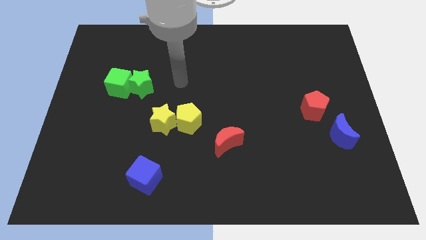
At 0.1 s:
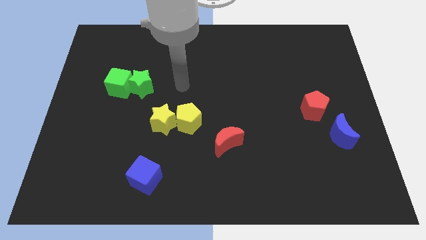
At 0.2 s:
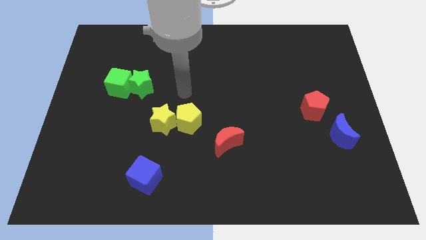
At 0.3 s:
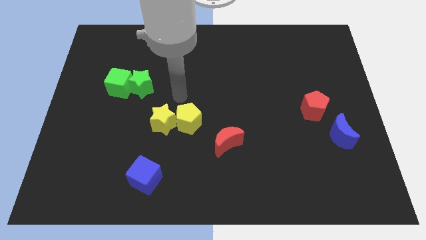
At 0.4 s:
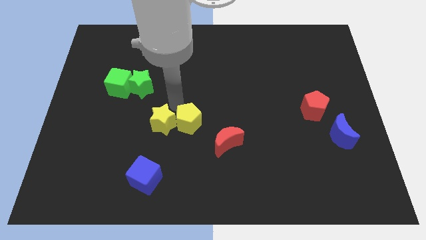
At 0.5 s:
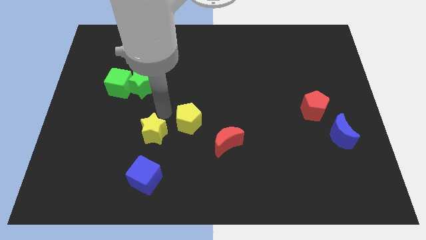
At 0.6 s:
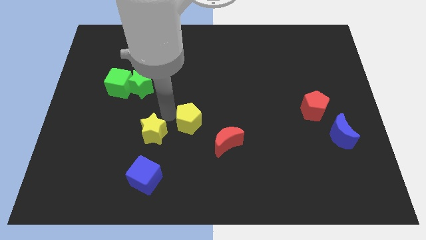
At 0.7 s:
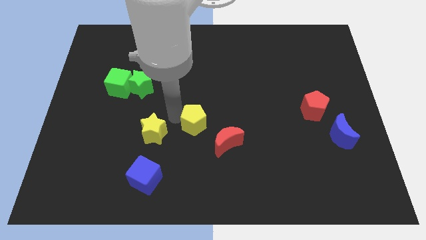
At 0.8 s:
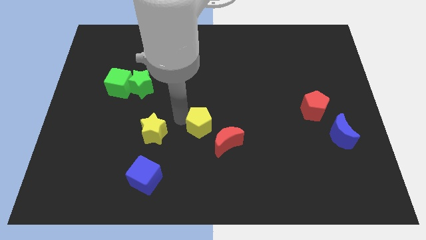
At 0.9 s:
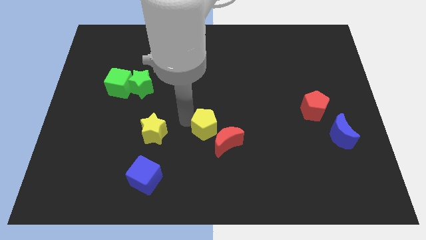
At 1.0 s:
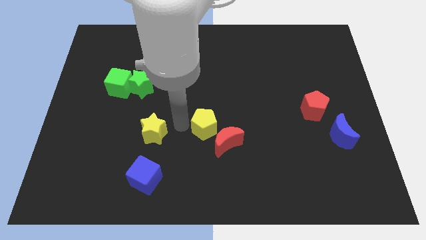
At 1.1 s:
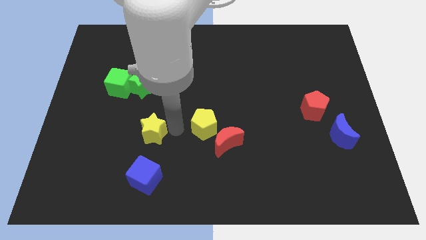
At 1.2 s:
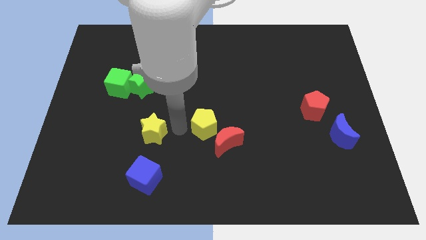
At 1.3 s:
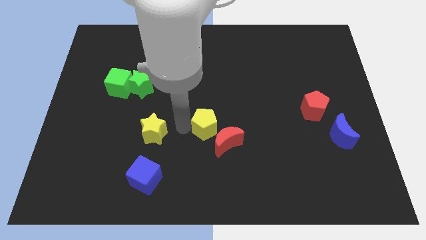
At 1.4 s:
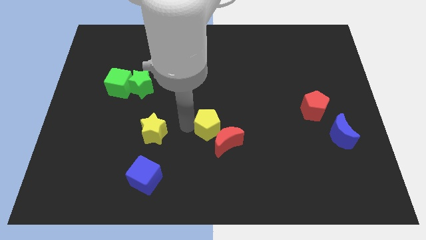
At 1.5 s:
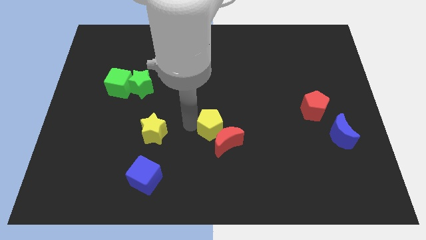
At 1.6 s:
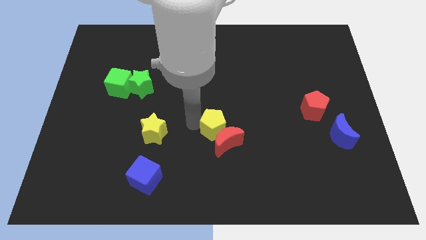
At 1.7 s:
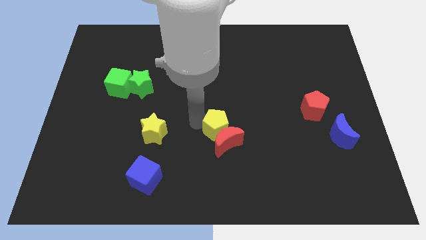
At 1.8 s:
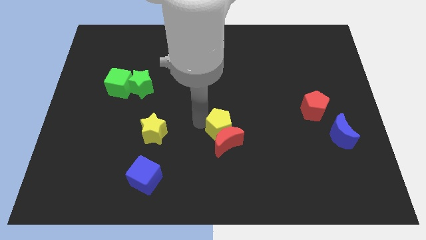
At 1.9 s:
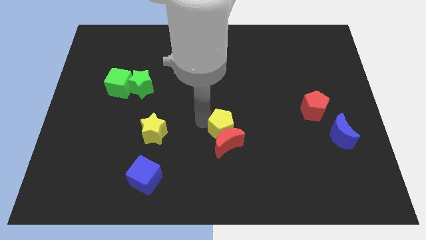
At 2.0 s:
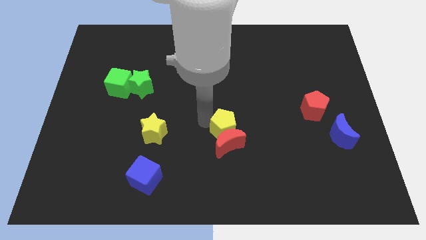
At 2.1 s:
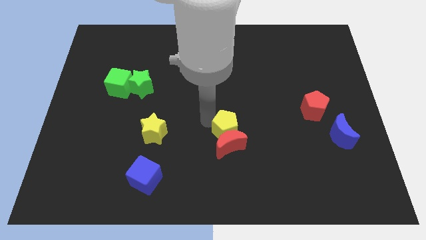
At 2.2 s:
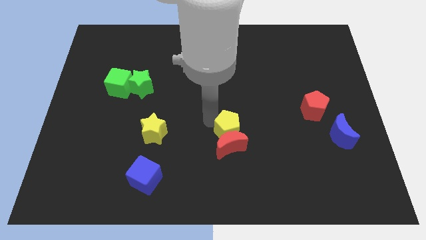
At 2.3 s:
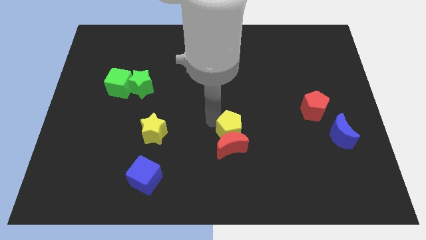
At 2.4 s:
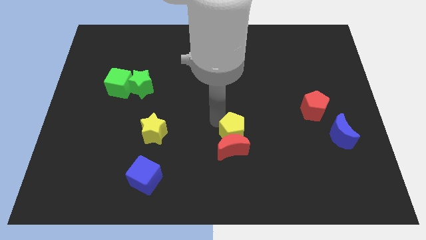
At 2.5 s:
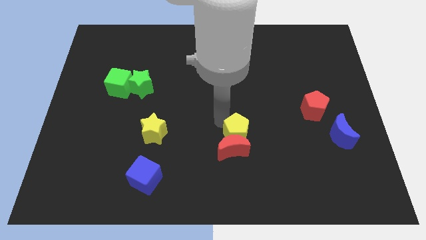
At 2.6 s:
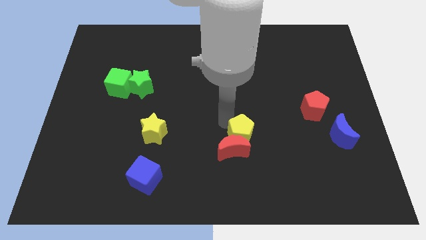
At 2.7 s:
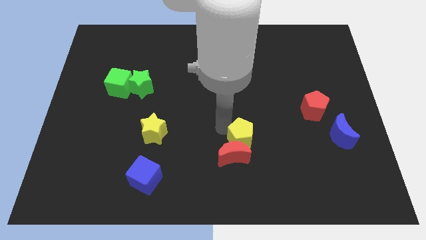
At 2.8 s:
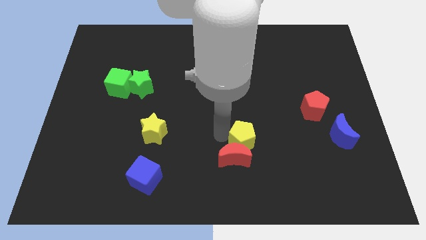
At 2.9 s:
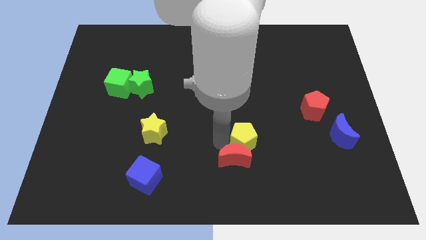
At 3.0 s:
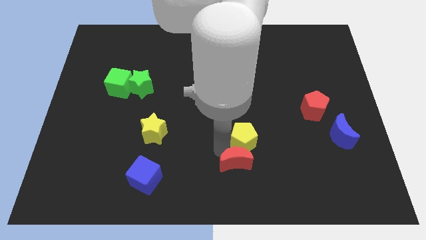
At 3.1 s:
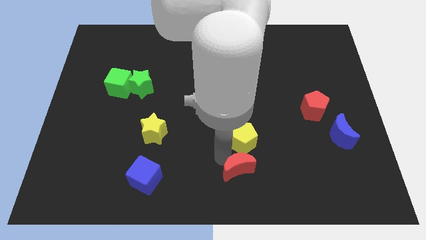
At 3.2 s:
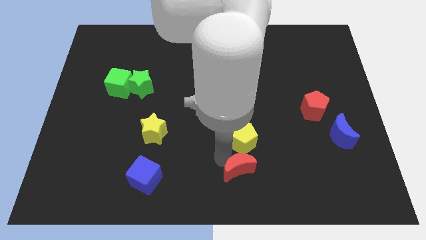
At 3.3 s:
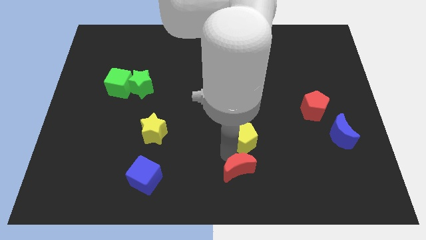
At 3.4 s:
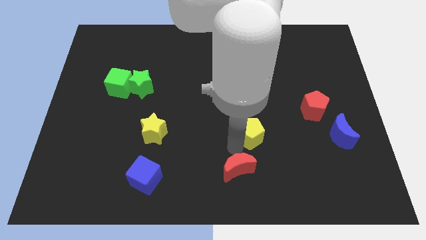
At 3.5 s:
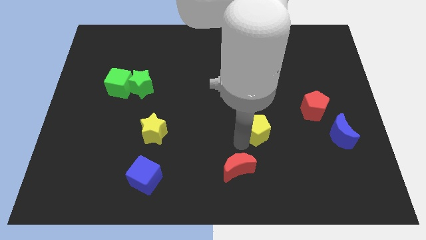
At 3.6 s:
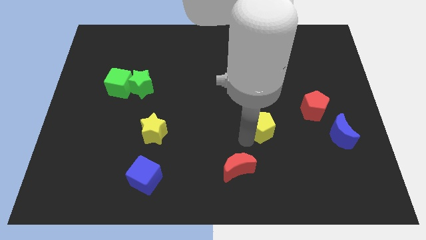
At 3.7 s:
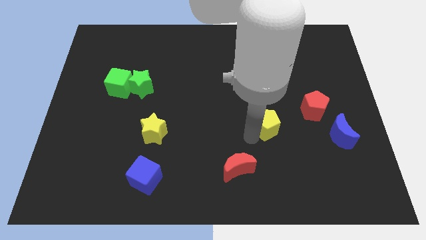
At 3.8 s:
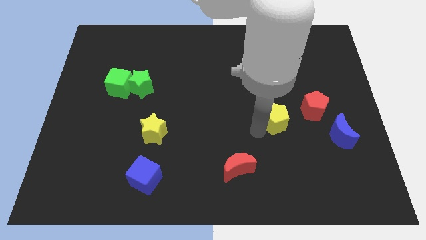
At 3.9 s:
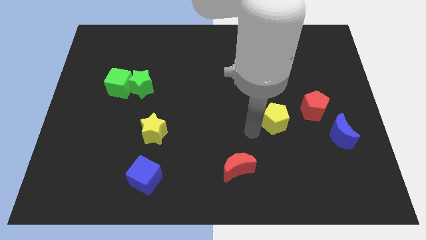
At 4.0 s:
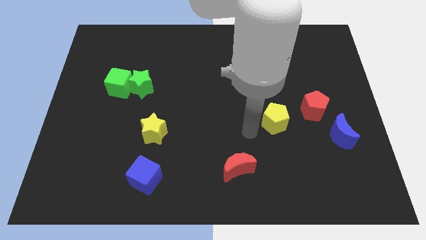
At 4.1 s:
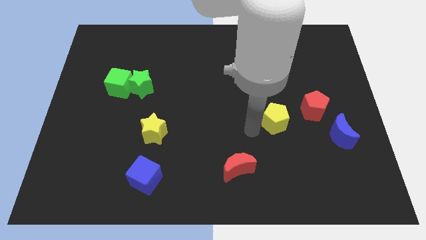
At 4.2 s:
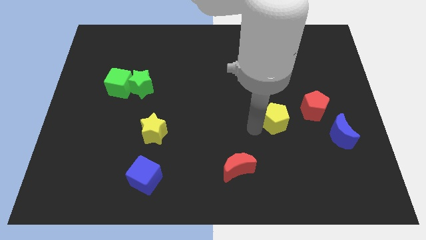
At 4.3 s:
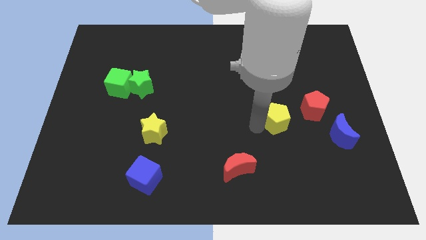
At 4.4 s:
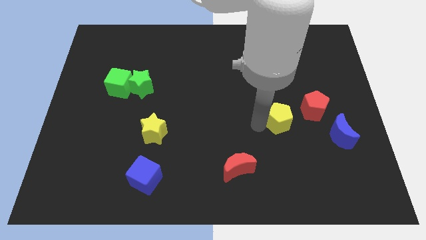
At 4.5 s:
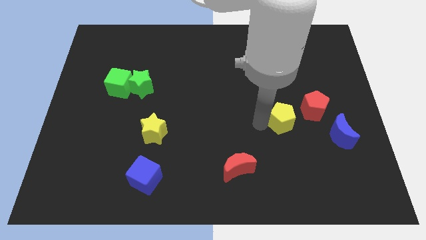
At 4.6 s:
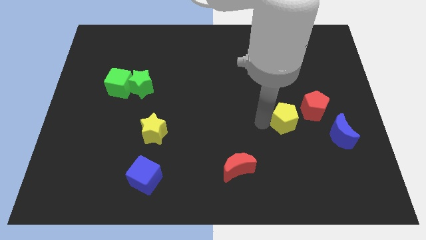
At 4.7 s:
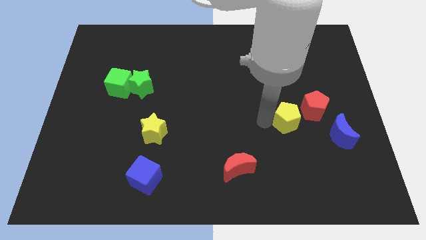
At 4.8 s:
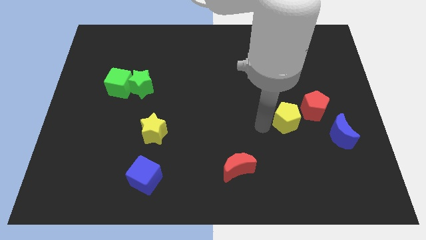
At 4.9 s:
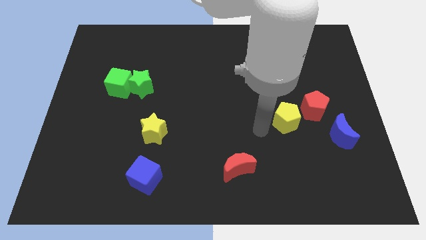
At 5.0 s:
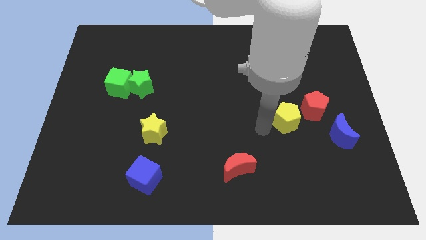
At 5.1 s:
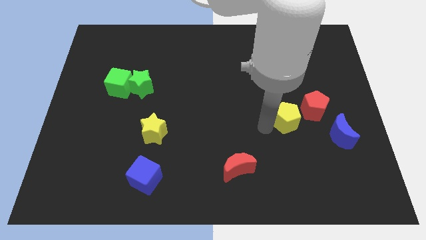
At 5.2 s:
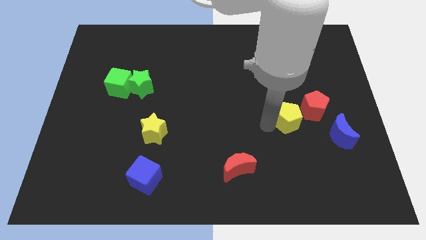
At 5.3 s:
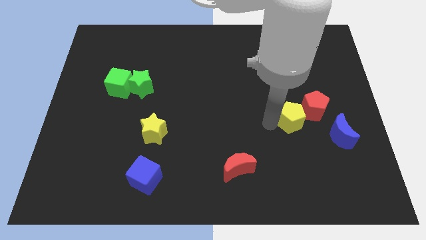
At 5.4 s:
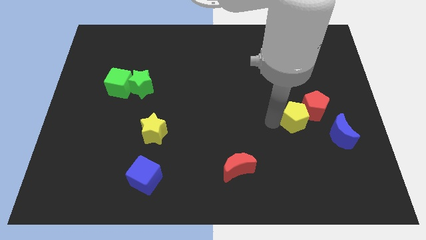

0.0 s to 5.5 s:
push the yellow pentagon towards the red pentagon

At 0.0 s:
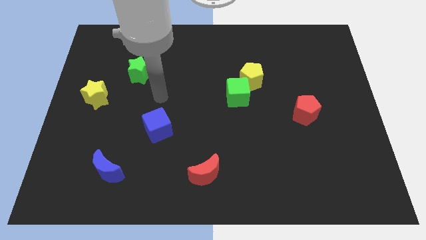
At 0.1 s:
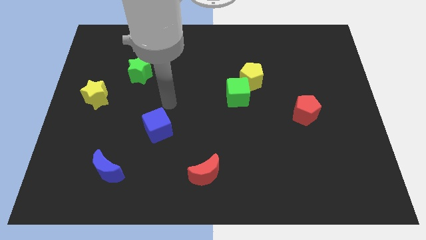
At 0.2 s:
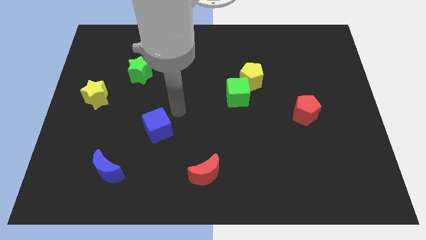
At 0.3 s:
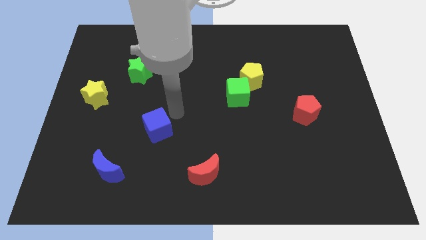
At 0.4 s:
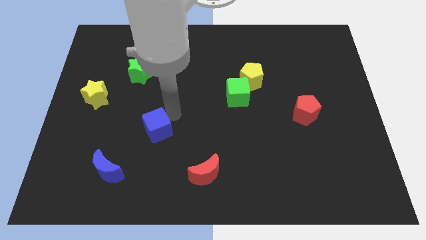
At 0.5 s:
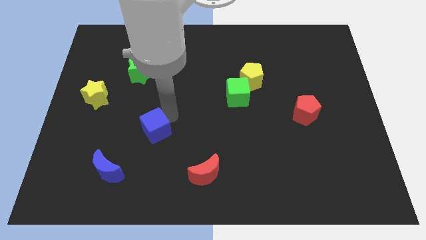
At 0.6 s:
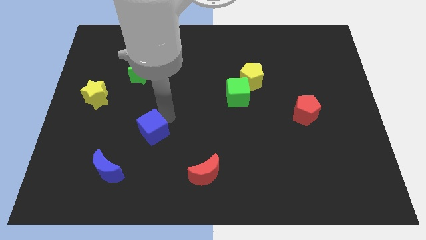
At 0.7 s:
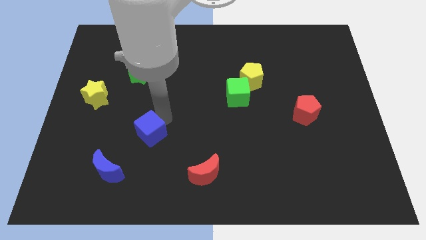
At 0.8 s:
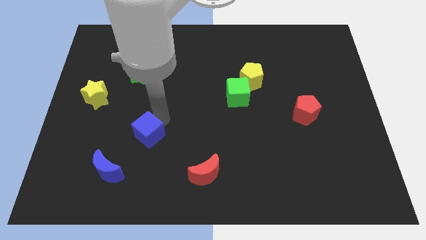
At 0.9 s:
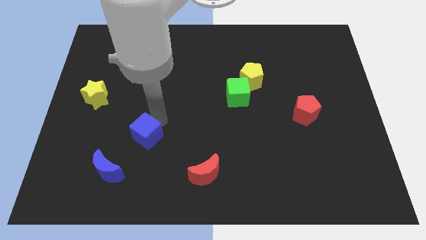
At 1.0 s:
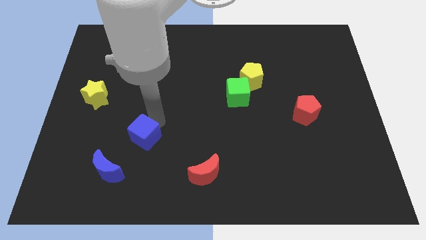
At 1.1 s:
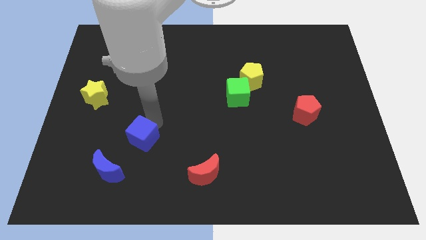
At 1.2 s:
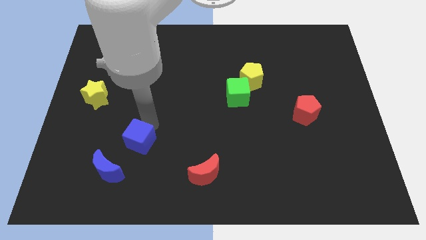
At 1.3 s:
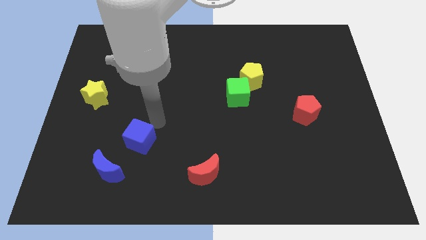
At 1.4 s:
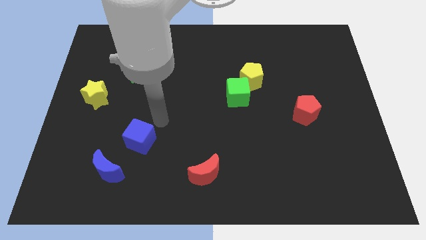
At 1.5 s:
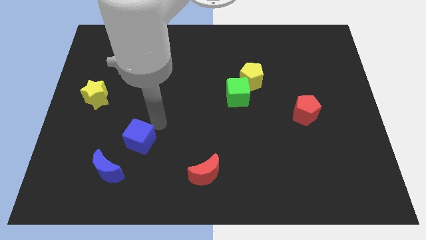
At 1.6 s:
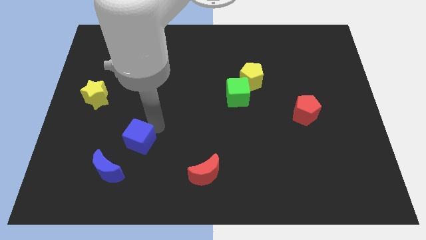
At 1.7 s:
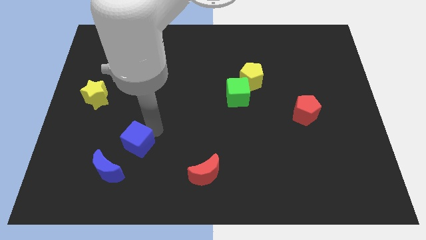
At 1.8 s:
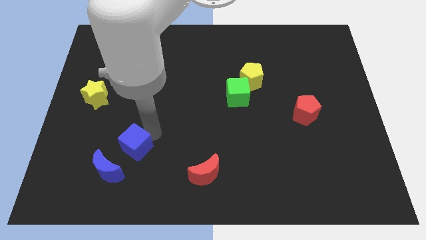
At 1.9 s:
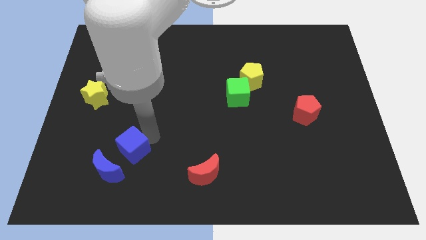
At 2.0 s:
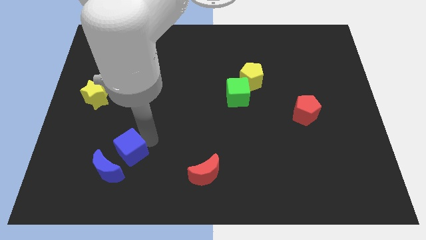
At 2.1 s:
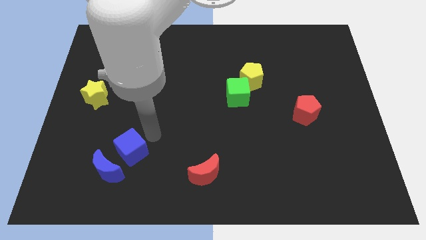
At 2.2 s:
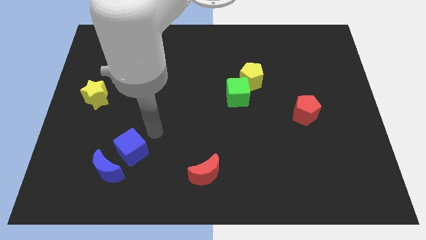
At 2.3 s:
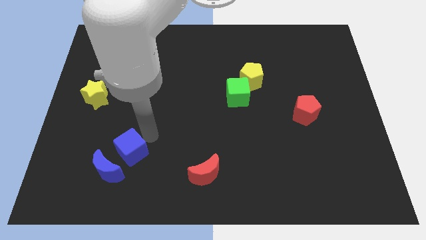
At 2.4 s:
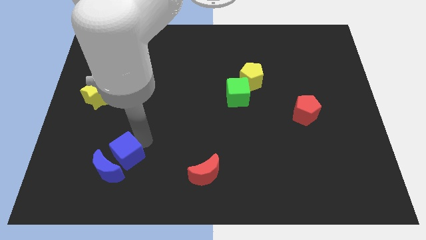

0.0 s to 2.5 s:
push the blue cube towards the blue moon
